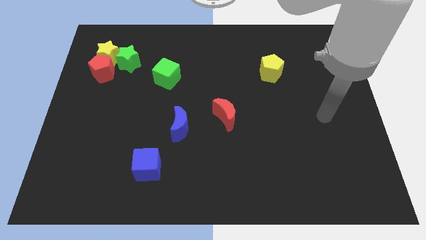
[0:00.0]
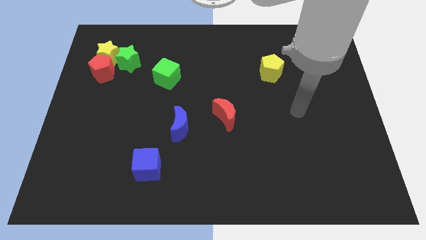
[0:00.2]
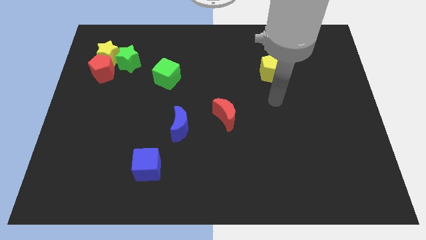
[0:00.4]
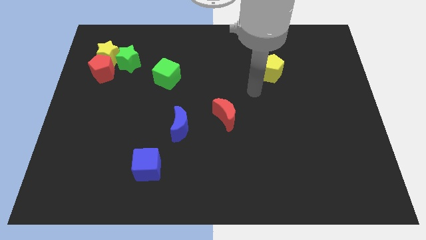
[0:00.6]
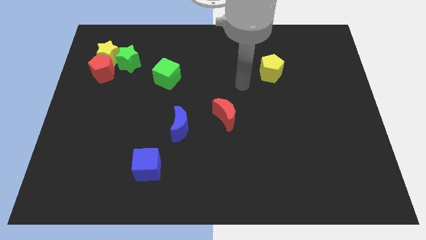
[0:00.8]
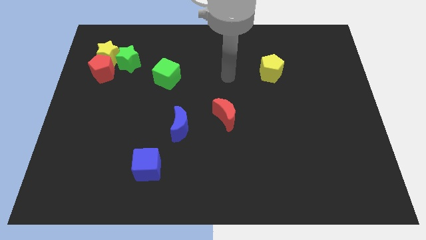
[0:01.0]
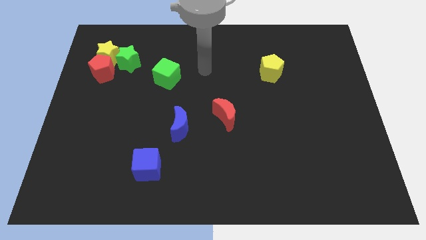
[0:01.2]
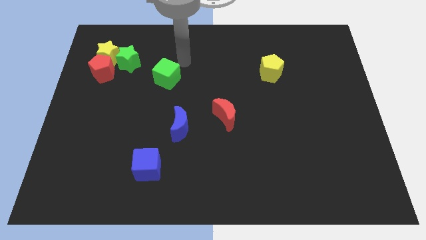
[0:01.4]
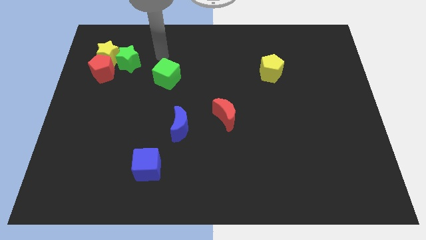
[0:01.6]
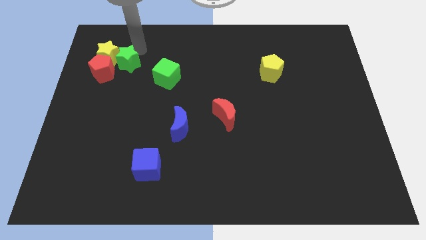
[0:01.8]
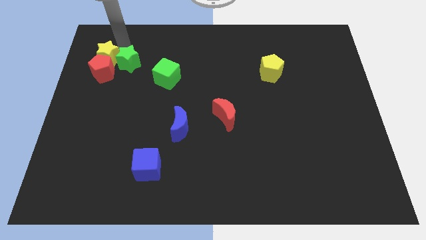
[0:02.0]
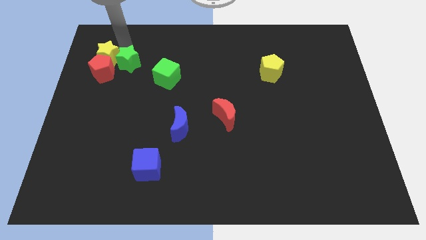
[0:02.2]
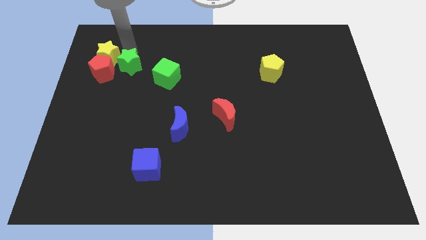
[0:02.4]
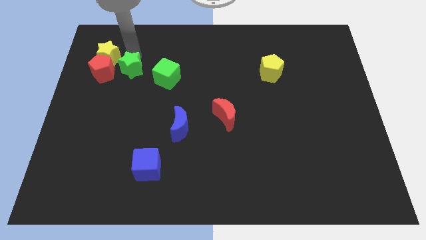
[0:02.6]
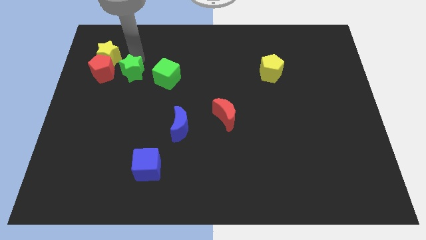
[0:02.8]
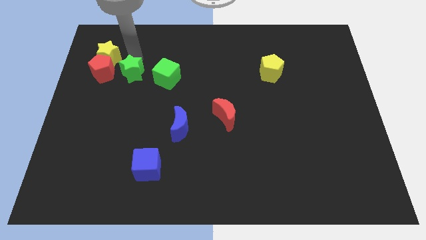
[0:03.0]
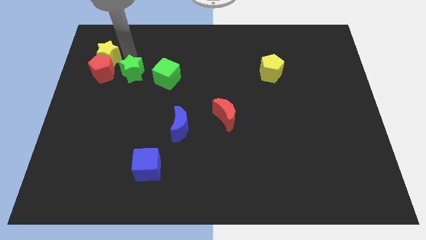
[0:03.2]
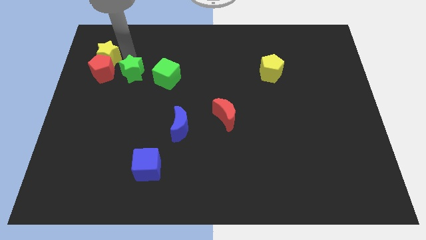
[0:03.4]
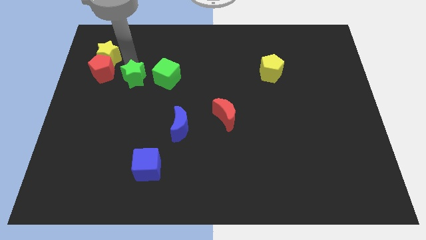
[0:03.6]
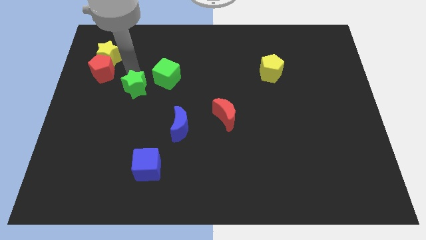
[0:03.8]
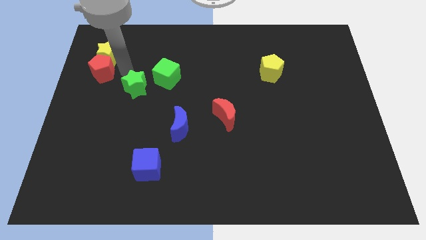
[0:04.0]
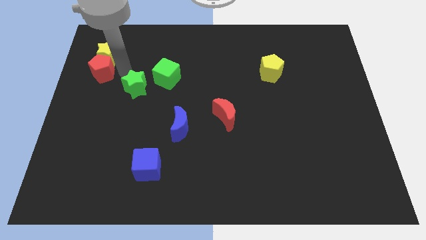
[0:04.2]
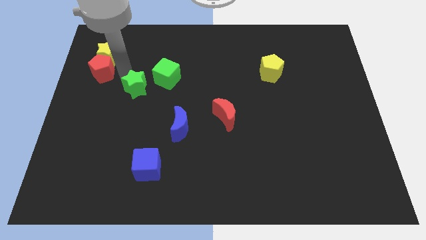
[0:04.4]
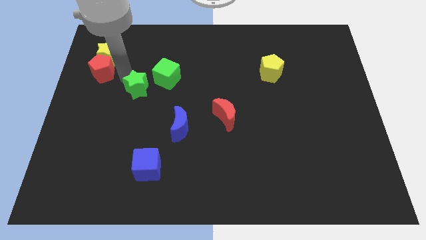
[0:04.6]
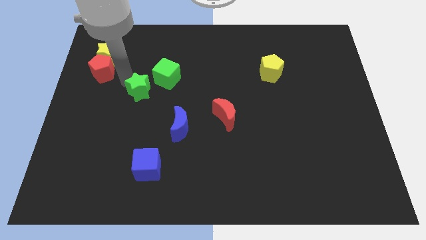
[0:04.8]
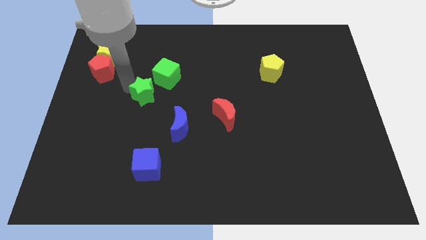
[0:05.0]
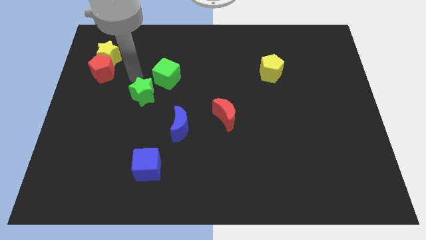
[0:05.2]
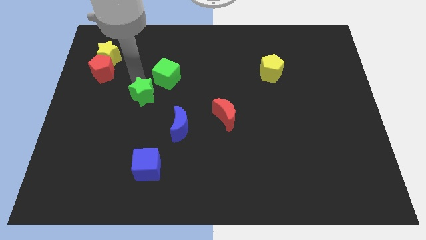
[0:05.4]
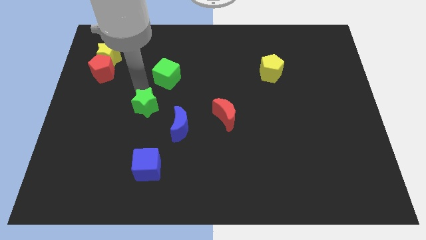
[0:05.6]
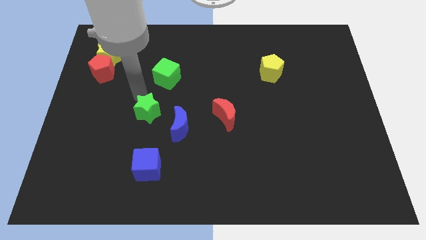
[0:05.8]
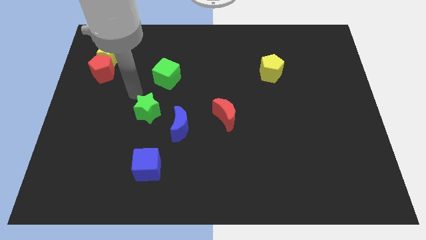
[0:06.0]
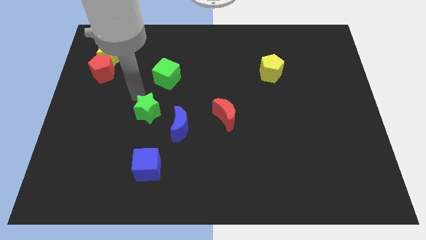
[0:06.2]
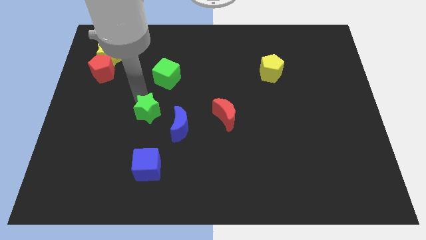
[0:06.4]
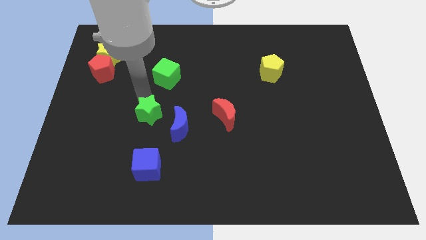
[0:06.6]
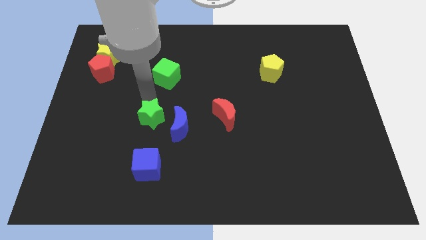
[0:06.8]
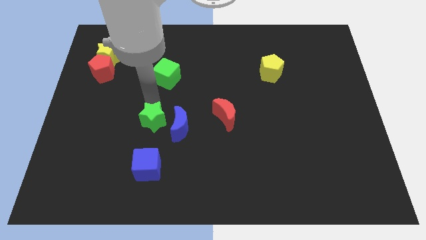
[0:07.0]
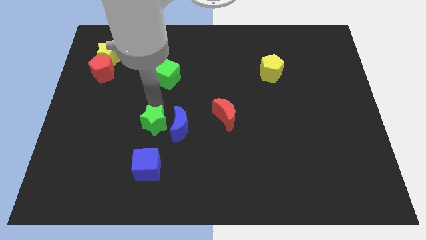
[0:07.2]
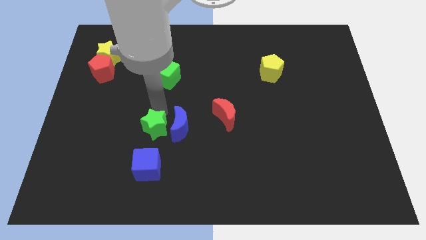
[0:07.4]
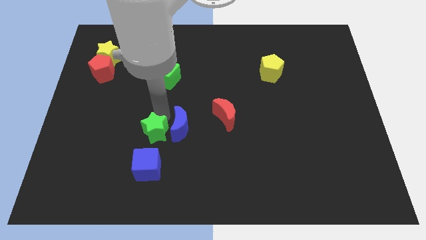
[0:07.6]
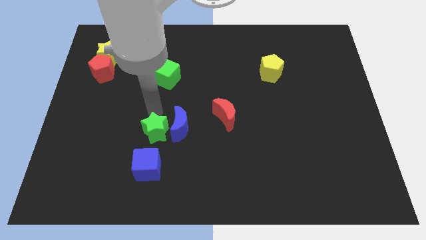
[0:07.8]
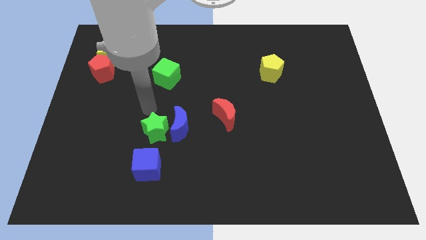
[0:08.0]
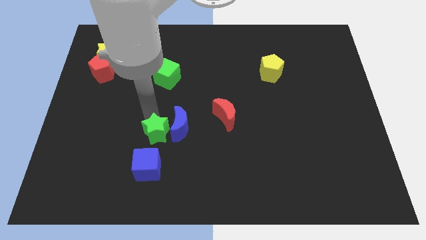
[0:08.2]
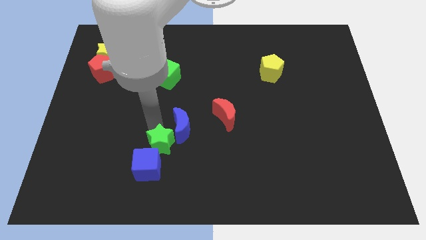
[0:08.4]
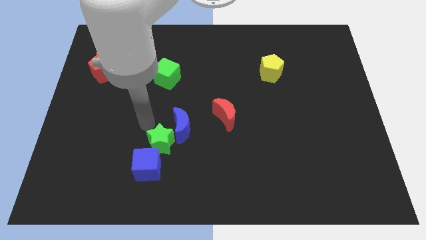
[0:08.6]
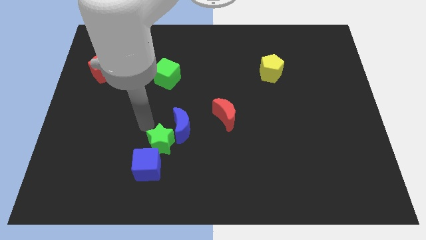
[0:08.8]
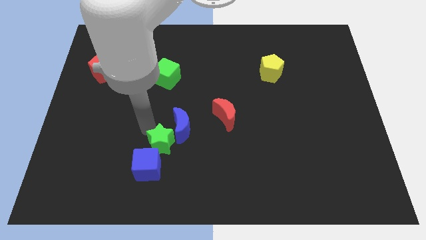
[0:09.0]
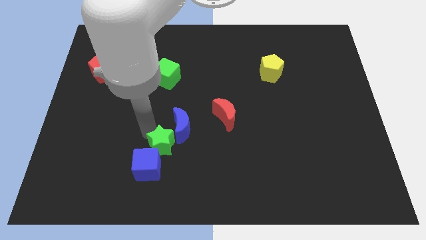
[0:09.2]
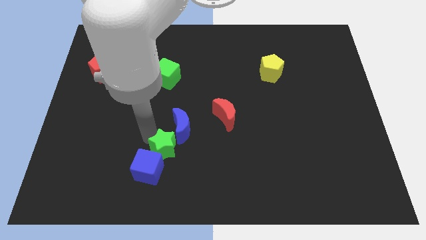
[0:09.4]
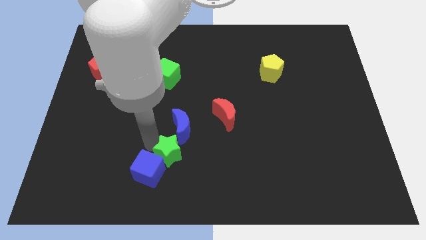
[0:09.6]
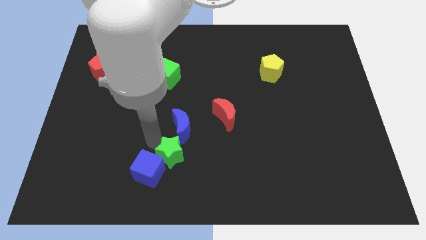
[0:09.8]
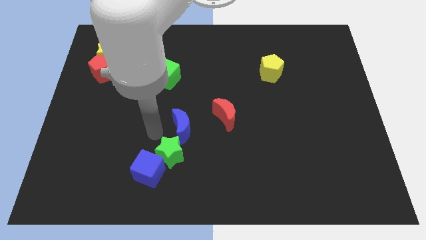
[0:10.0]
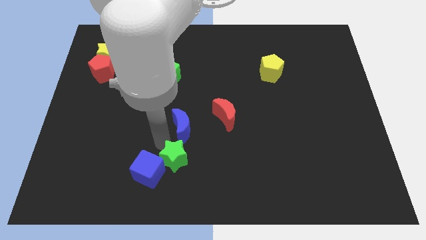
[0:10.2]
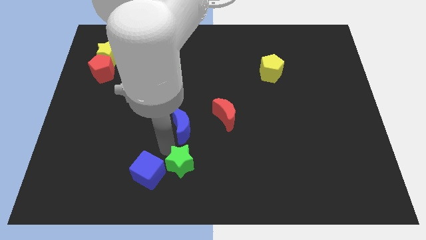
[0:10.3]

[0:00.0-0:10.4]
push the green star to the bottom side

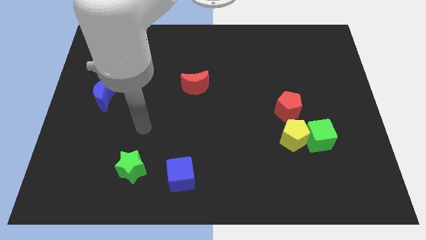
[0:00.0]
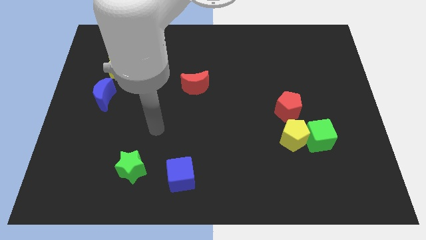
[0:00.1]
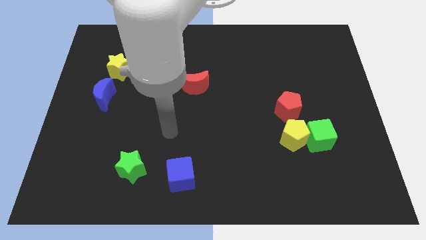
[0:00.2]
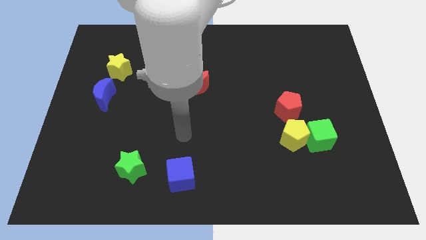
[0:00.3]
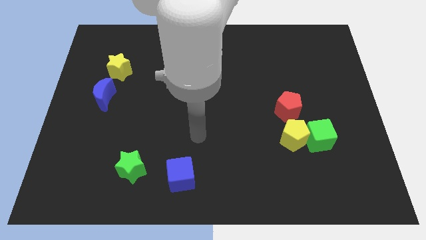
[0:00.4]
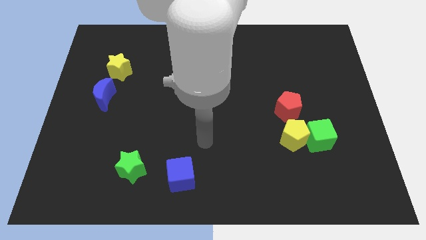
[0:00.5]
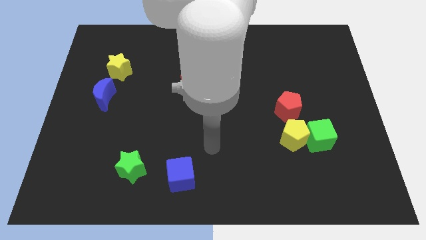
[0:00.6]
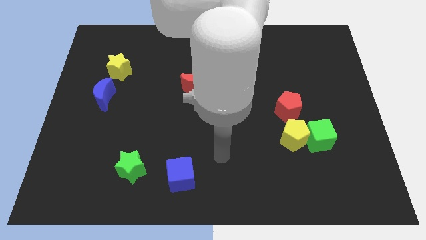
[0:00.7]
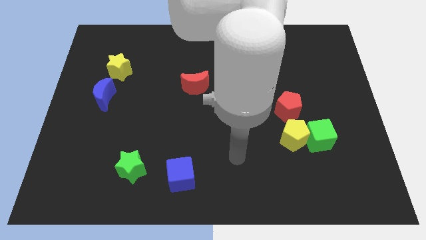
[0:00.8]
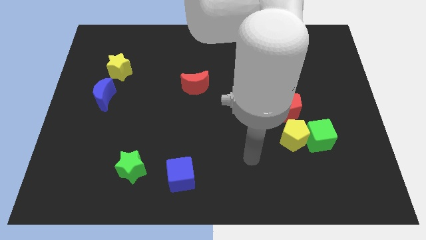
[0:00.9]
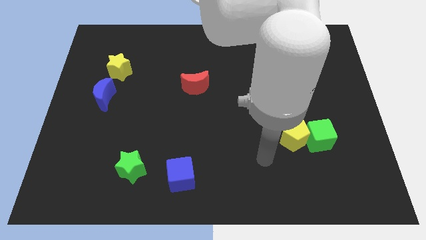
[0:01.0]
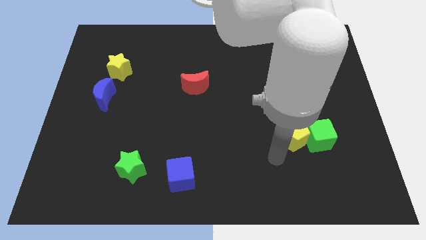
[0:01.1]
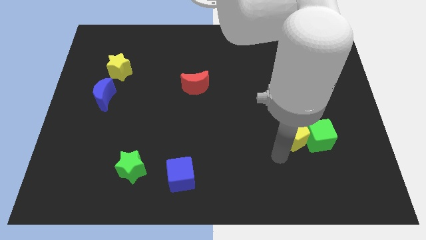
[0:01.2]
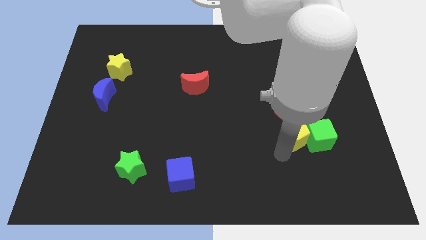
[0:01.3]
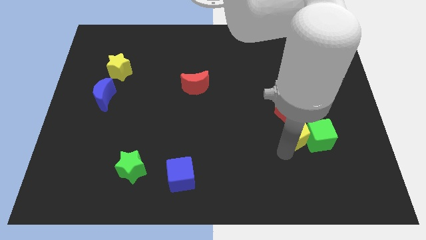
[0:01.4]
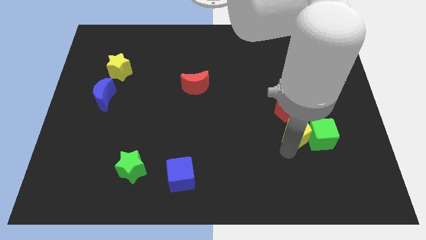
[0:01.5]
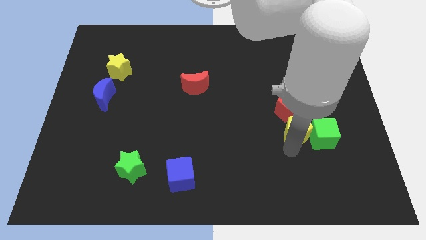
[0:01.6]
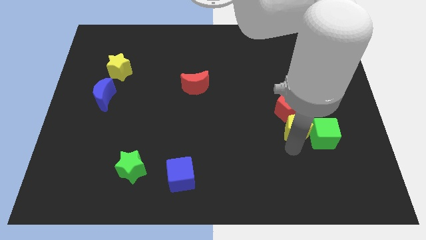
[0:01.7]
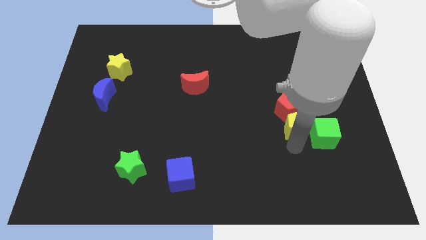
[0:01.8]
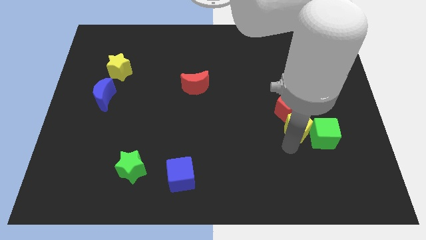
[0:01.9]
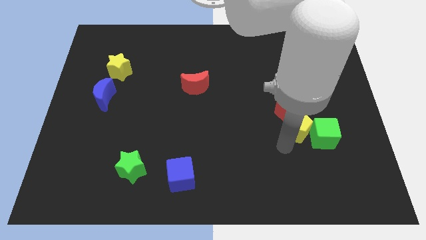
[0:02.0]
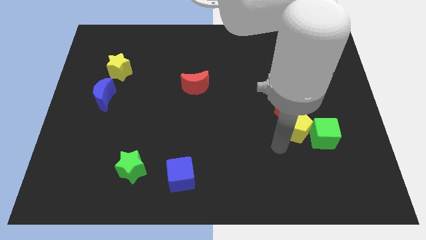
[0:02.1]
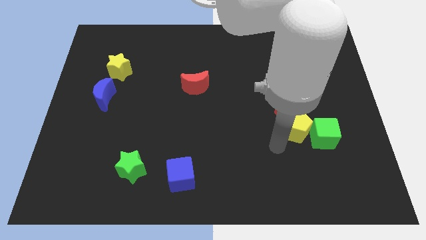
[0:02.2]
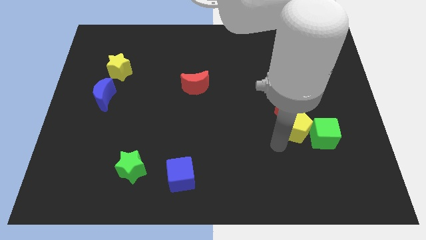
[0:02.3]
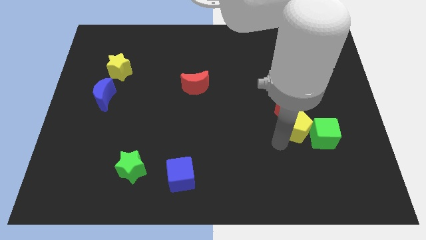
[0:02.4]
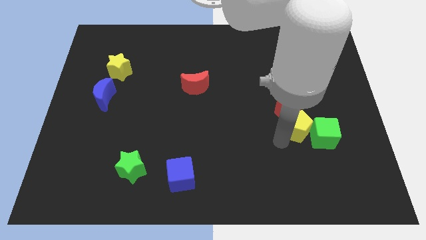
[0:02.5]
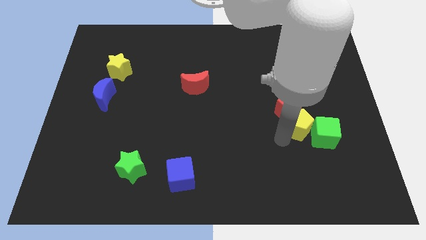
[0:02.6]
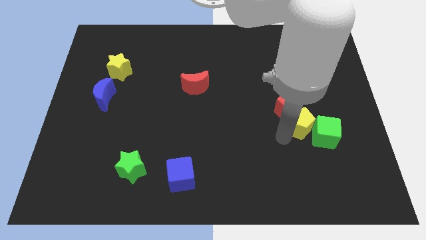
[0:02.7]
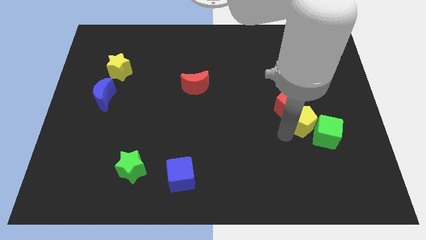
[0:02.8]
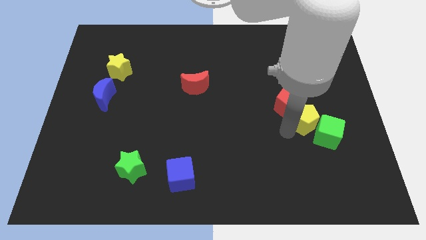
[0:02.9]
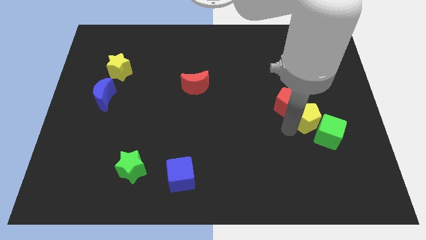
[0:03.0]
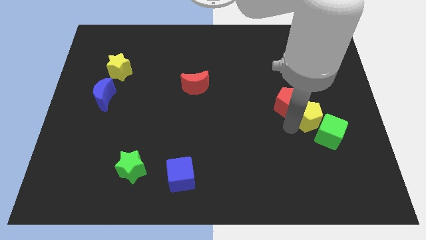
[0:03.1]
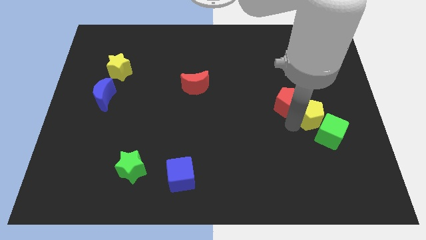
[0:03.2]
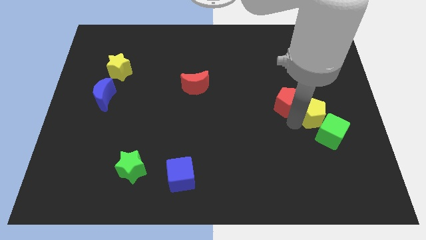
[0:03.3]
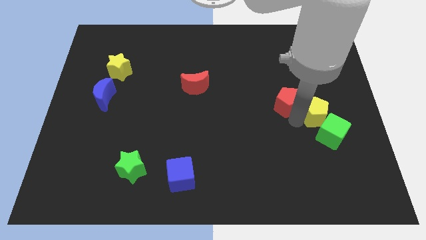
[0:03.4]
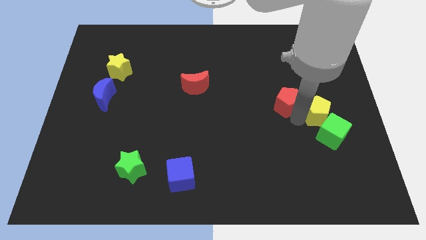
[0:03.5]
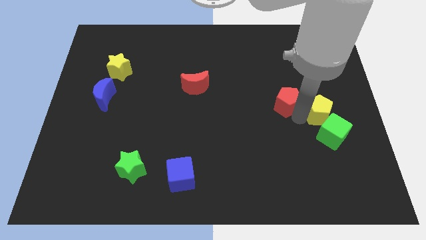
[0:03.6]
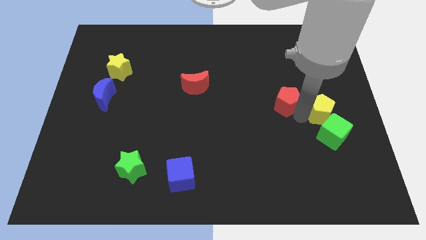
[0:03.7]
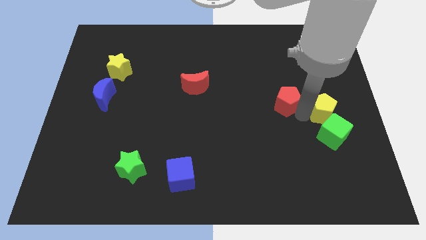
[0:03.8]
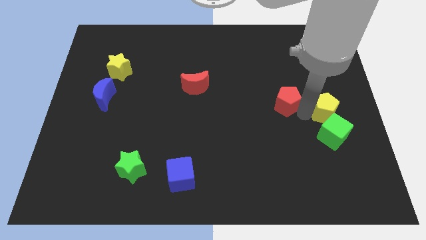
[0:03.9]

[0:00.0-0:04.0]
slide the yellow pentagon to the center right
